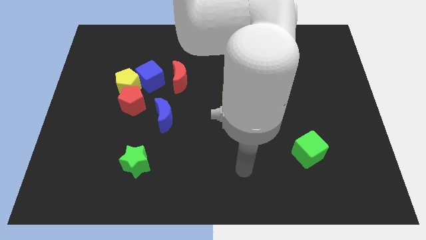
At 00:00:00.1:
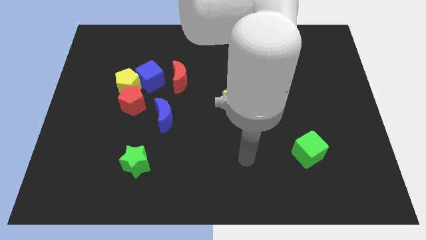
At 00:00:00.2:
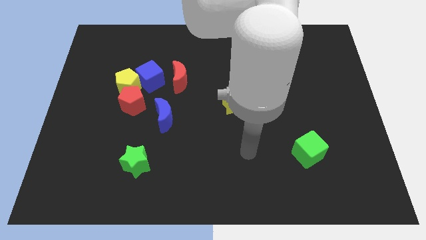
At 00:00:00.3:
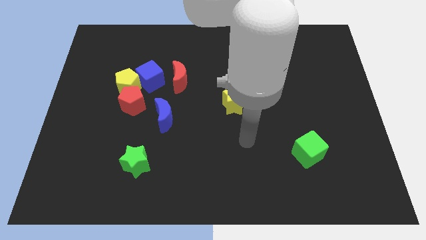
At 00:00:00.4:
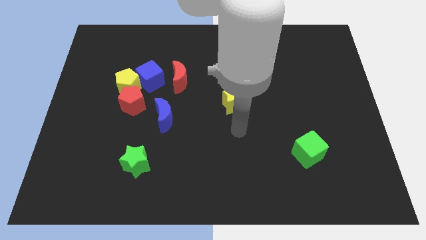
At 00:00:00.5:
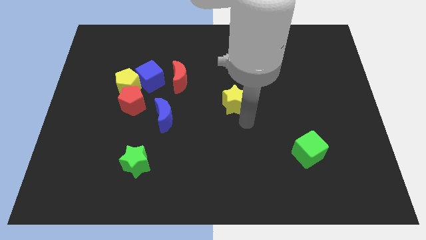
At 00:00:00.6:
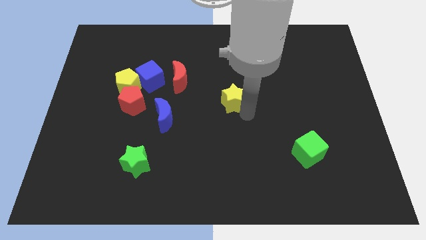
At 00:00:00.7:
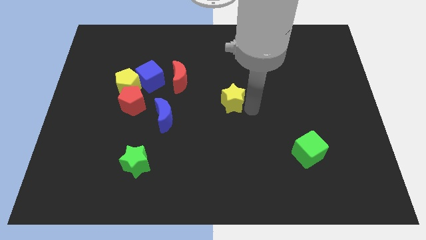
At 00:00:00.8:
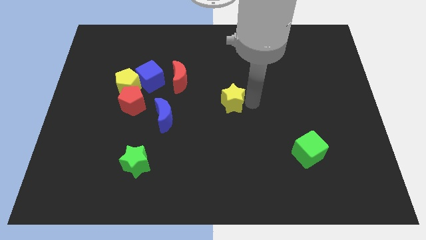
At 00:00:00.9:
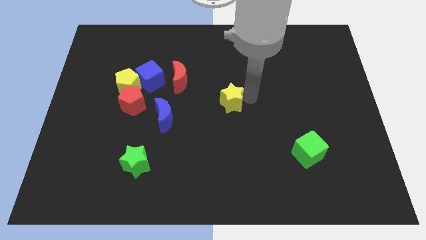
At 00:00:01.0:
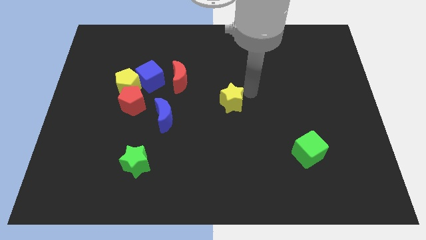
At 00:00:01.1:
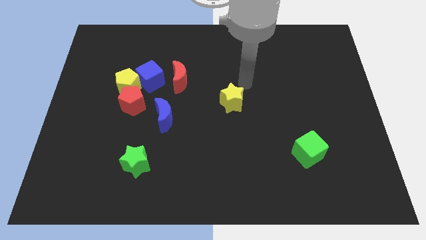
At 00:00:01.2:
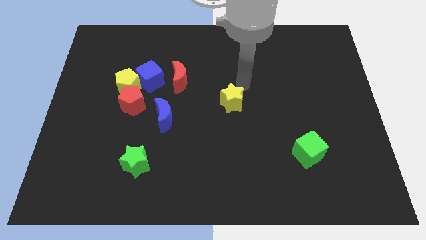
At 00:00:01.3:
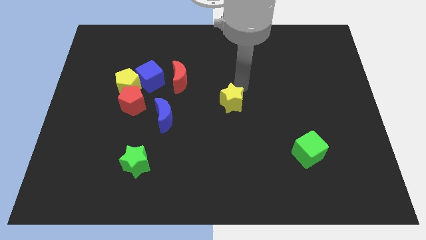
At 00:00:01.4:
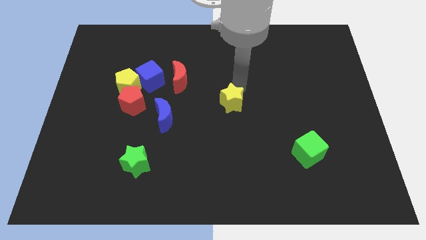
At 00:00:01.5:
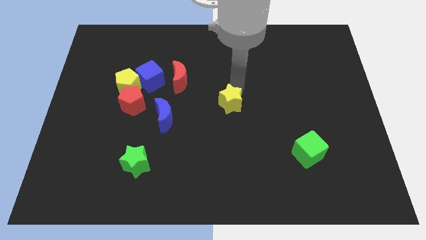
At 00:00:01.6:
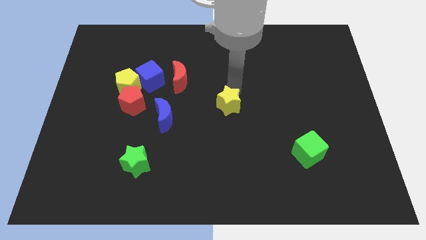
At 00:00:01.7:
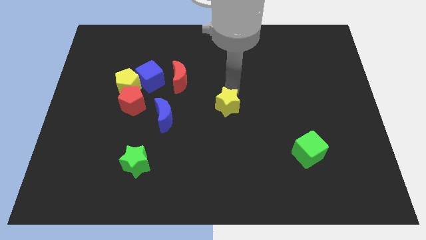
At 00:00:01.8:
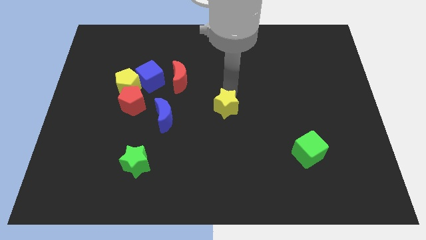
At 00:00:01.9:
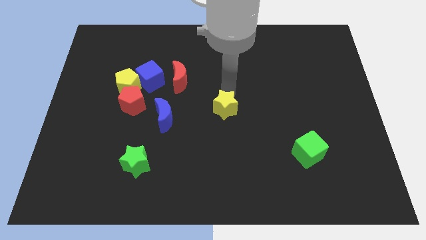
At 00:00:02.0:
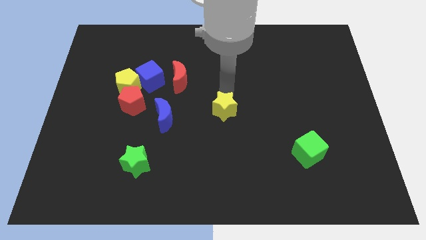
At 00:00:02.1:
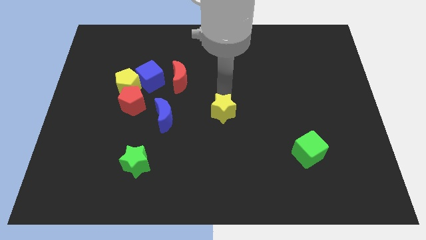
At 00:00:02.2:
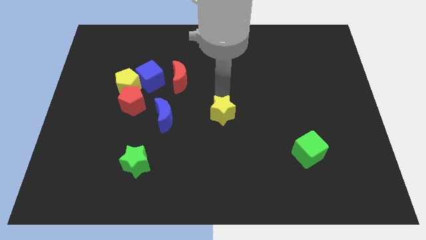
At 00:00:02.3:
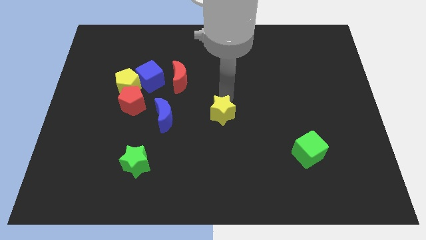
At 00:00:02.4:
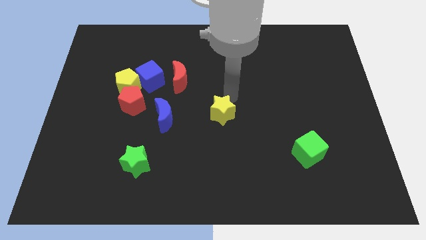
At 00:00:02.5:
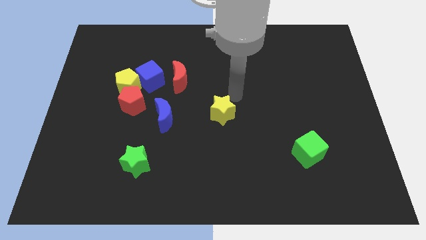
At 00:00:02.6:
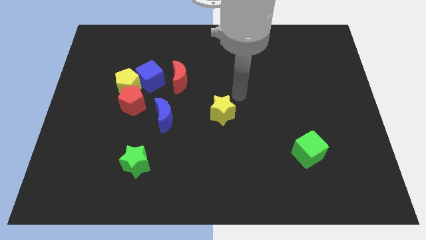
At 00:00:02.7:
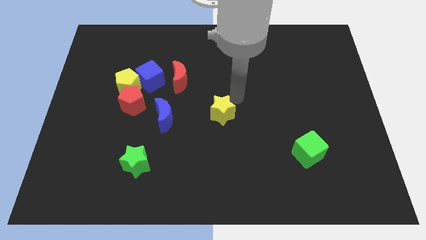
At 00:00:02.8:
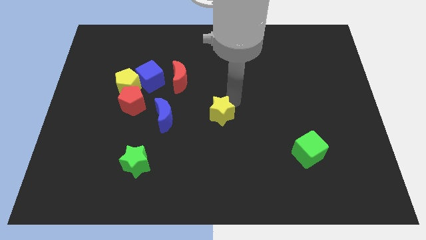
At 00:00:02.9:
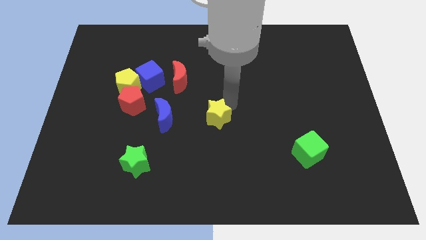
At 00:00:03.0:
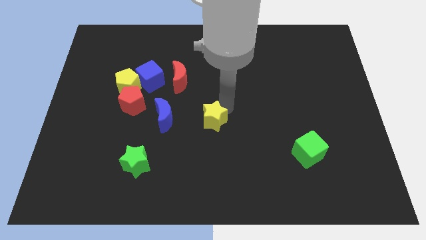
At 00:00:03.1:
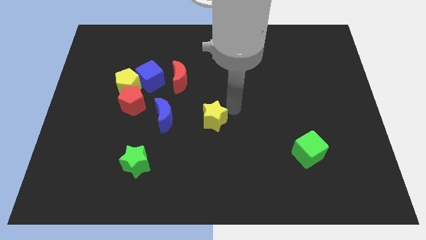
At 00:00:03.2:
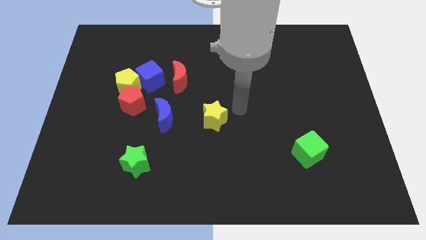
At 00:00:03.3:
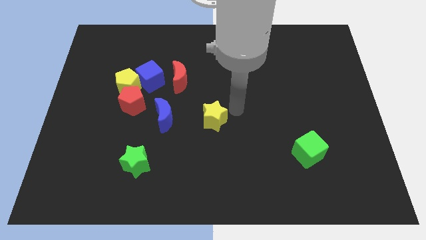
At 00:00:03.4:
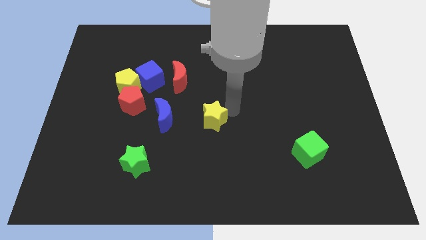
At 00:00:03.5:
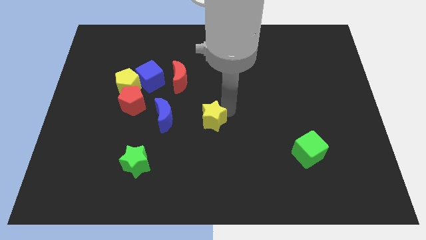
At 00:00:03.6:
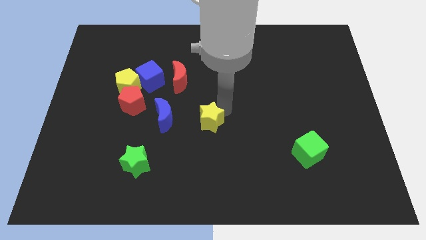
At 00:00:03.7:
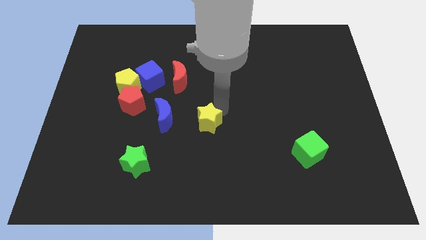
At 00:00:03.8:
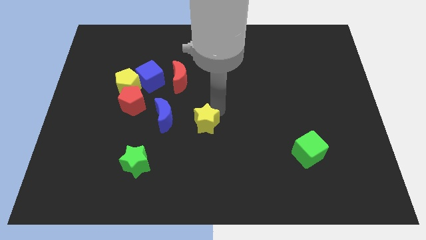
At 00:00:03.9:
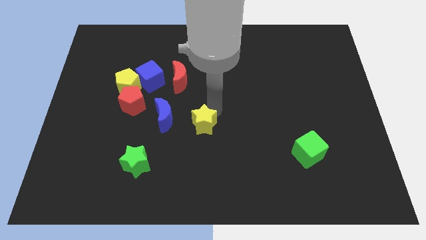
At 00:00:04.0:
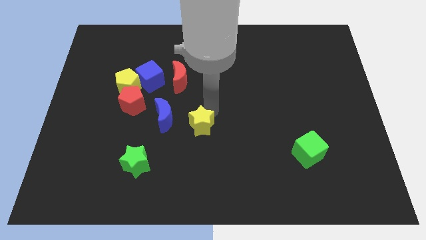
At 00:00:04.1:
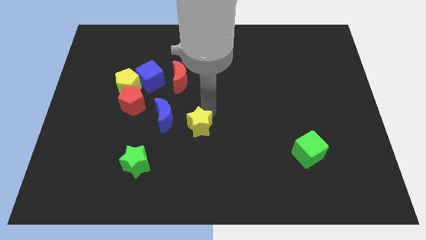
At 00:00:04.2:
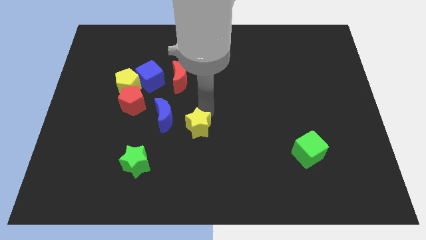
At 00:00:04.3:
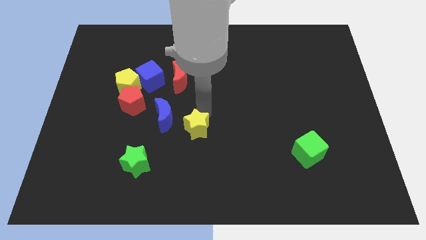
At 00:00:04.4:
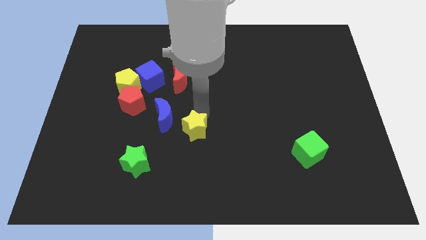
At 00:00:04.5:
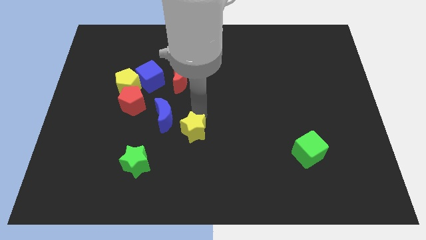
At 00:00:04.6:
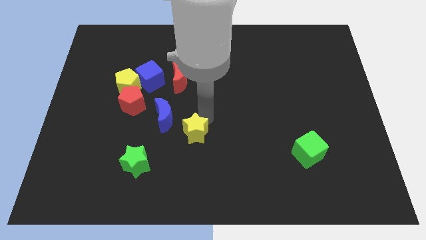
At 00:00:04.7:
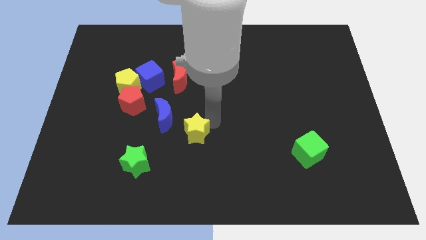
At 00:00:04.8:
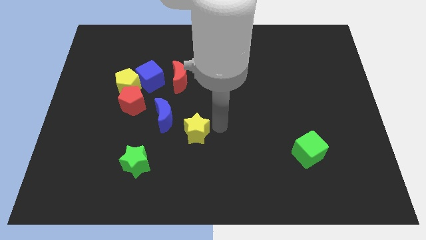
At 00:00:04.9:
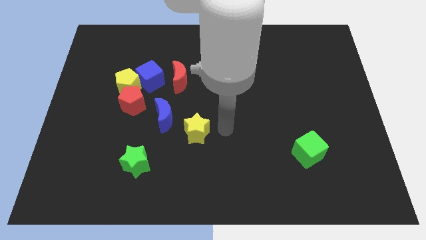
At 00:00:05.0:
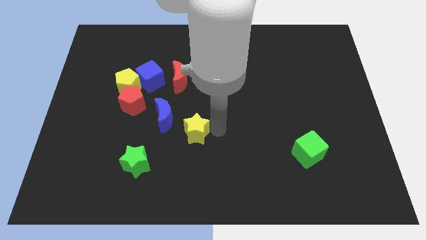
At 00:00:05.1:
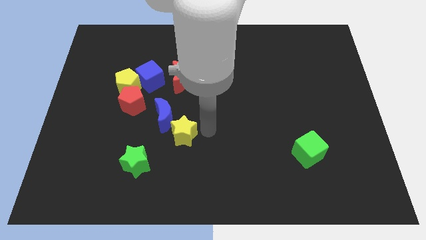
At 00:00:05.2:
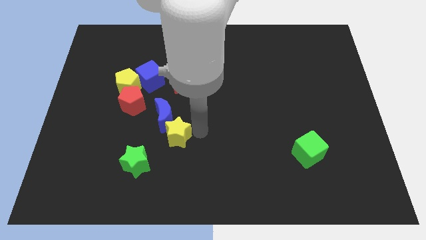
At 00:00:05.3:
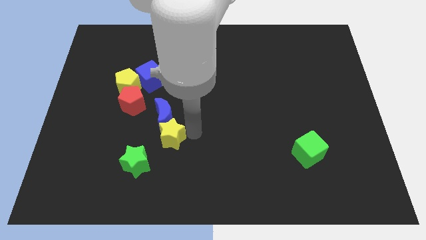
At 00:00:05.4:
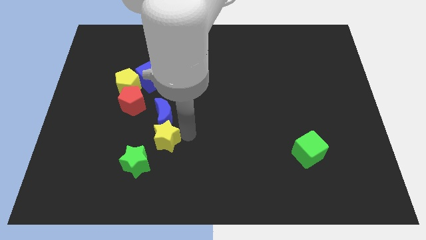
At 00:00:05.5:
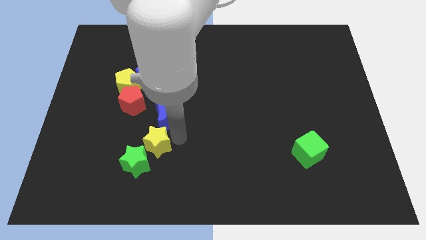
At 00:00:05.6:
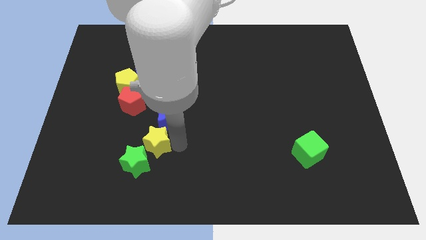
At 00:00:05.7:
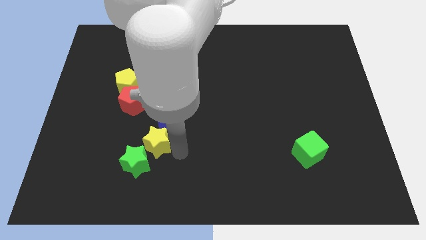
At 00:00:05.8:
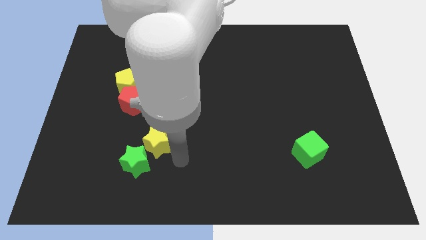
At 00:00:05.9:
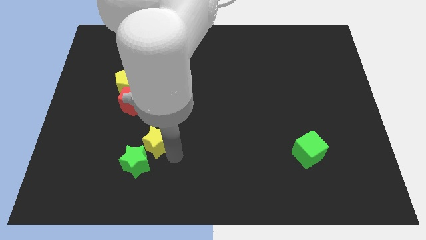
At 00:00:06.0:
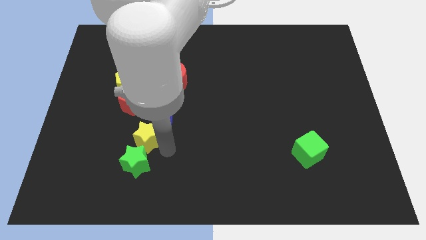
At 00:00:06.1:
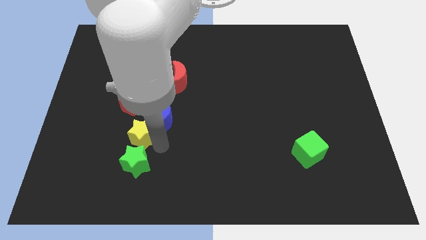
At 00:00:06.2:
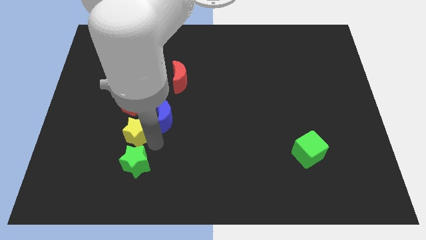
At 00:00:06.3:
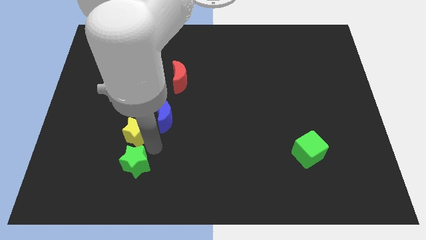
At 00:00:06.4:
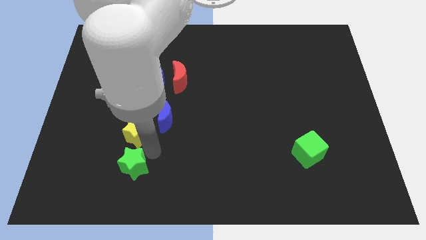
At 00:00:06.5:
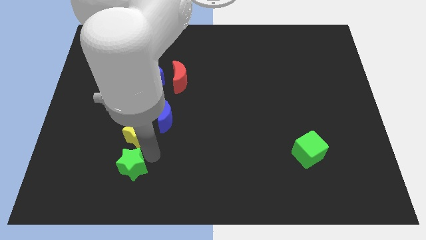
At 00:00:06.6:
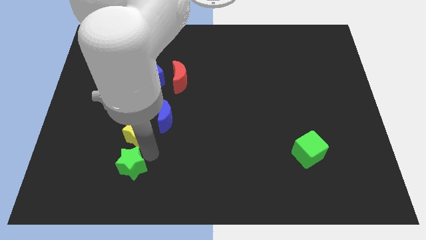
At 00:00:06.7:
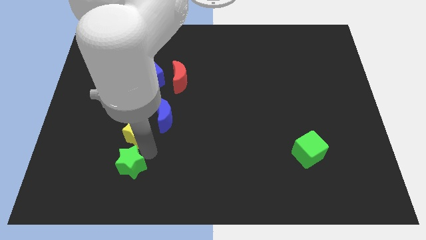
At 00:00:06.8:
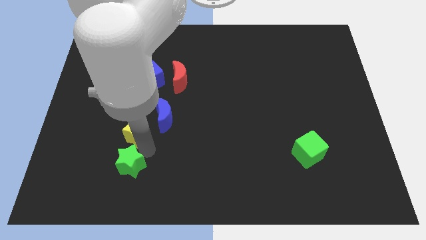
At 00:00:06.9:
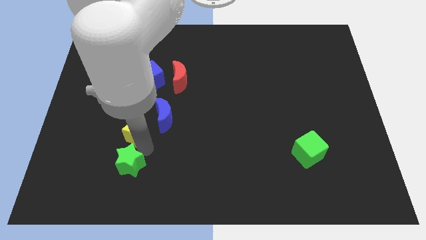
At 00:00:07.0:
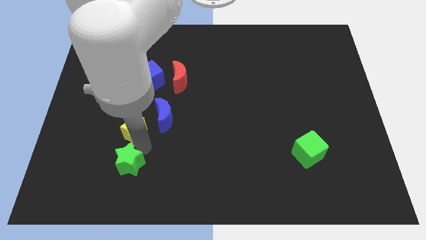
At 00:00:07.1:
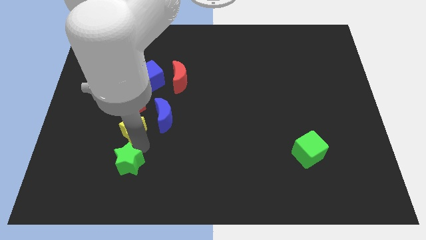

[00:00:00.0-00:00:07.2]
slide the yellow star left

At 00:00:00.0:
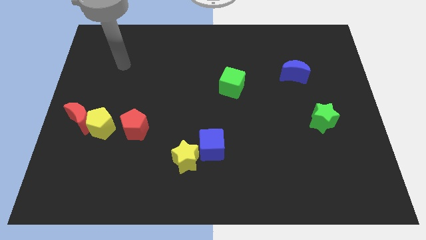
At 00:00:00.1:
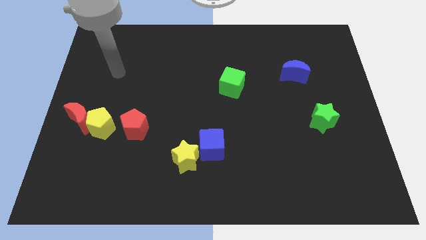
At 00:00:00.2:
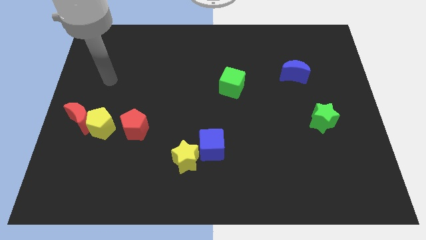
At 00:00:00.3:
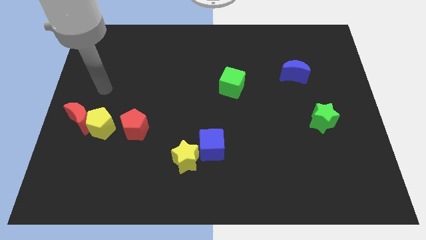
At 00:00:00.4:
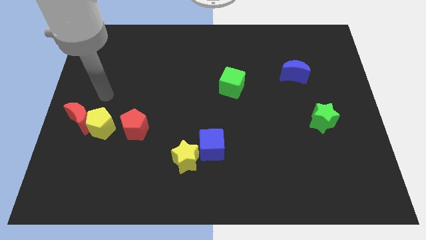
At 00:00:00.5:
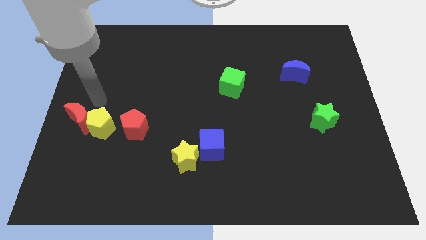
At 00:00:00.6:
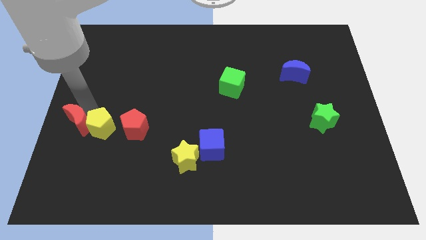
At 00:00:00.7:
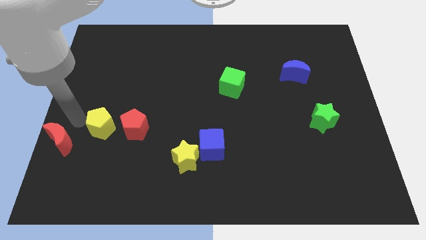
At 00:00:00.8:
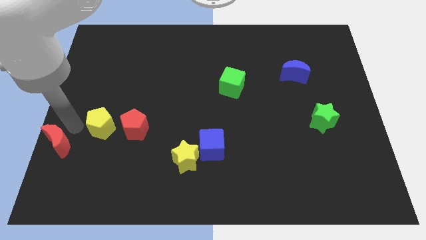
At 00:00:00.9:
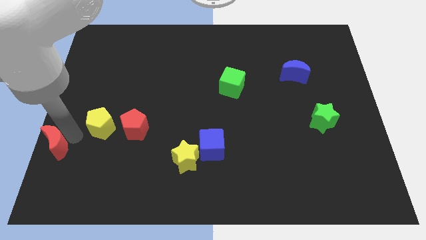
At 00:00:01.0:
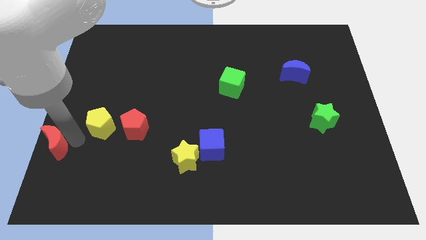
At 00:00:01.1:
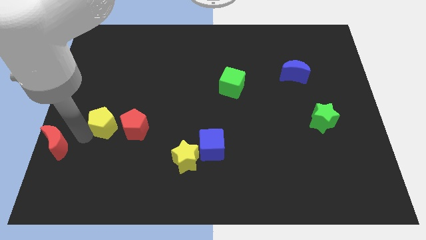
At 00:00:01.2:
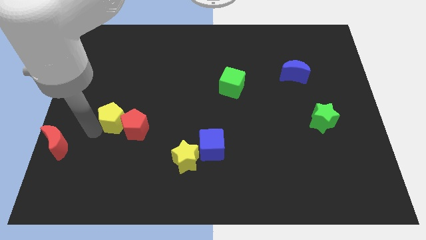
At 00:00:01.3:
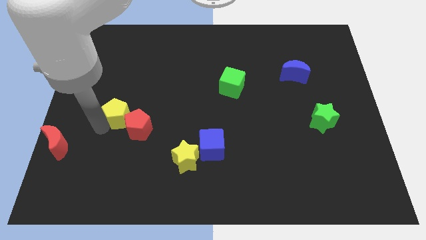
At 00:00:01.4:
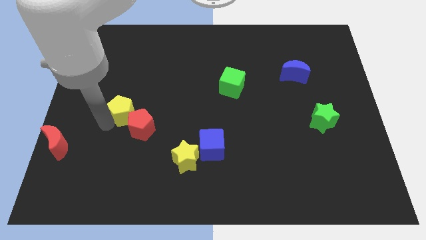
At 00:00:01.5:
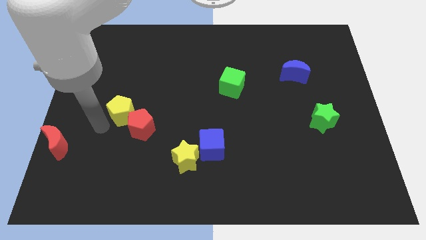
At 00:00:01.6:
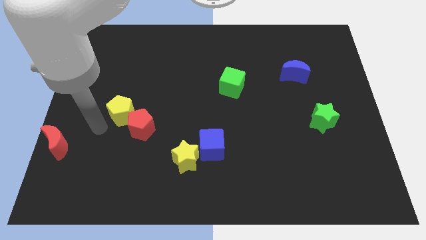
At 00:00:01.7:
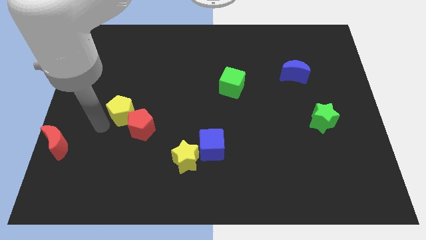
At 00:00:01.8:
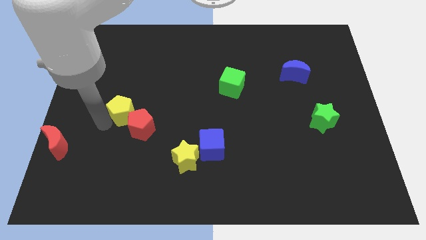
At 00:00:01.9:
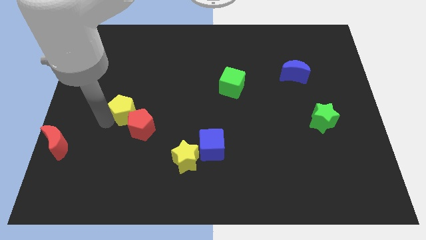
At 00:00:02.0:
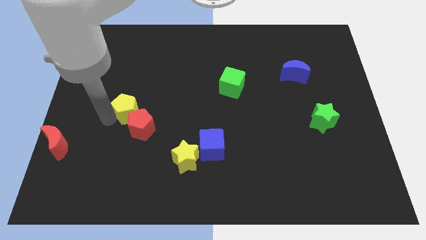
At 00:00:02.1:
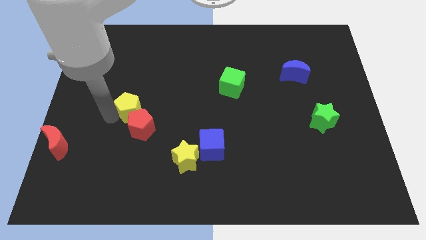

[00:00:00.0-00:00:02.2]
slightly slide the yellow pentagon upwards and to the right diagonally
